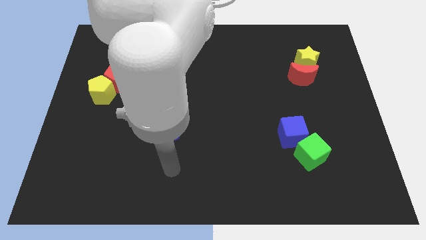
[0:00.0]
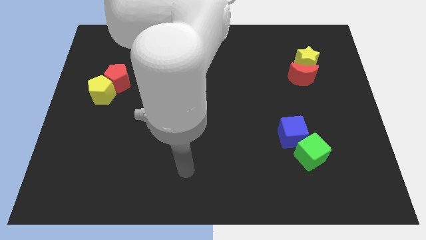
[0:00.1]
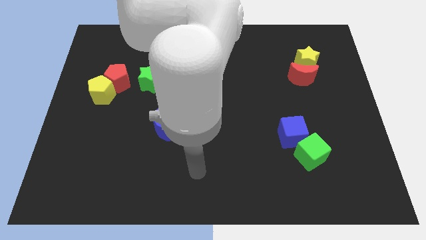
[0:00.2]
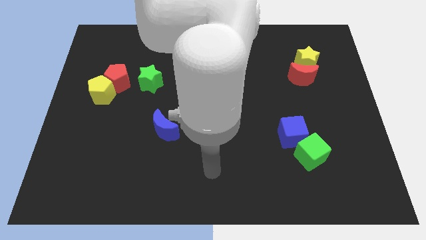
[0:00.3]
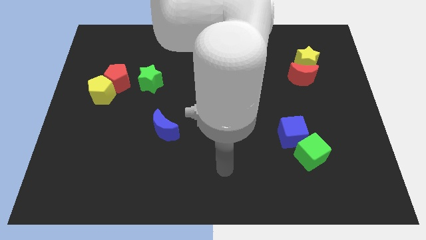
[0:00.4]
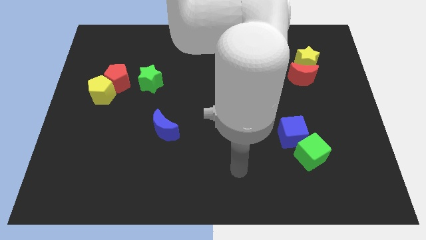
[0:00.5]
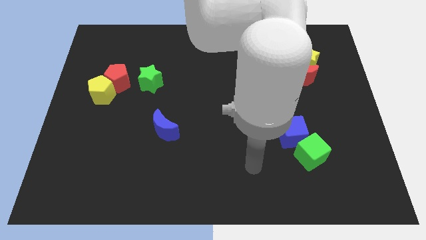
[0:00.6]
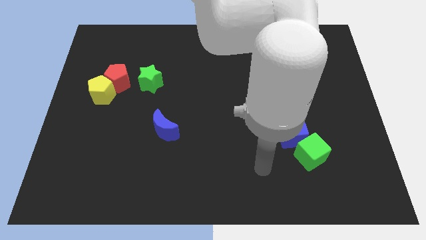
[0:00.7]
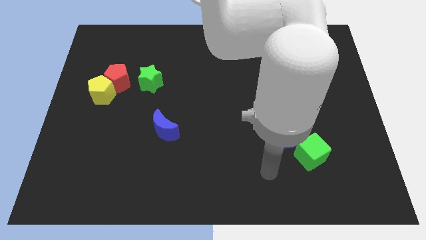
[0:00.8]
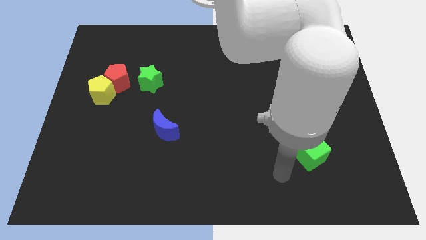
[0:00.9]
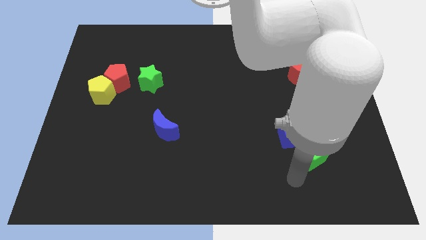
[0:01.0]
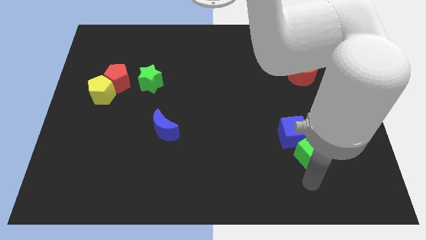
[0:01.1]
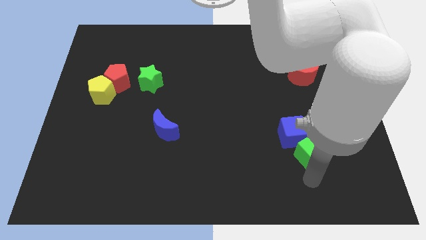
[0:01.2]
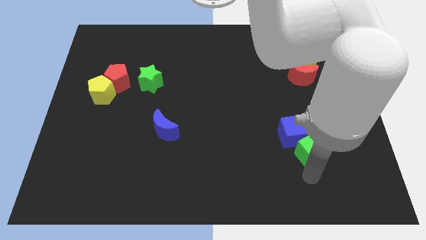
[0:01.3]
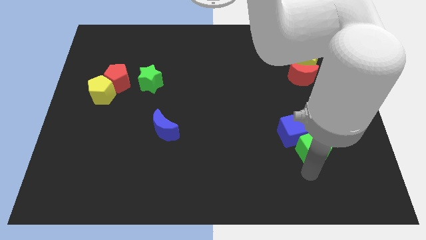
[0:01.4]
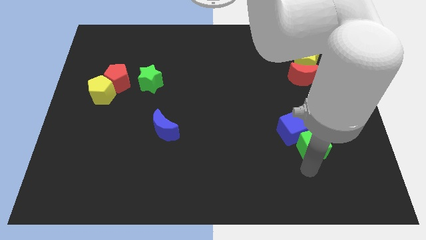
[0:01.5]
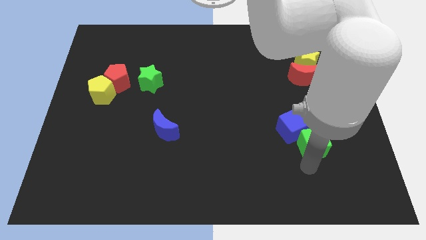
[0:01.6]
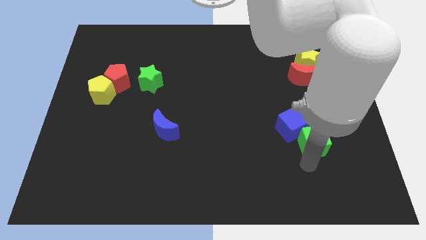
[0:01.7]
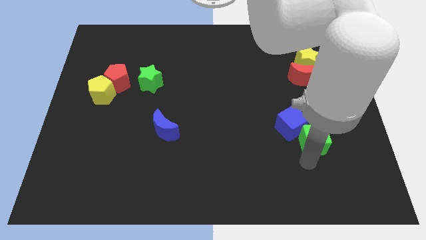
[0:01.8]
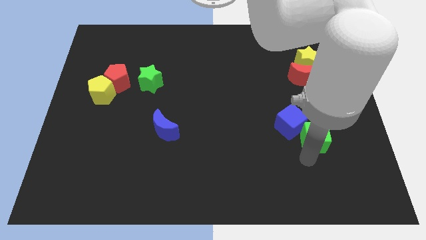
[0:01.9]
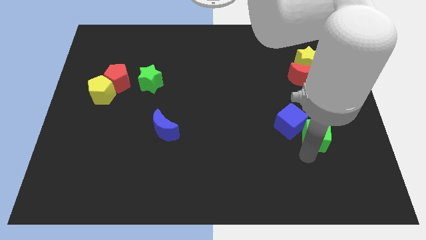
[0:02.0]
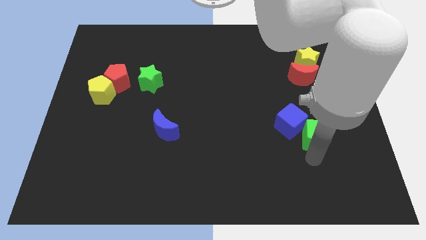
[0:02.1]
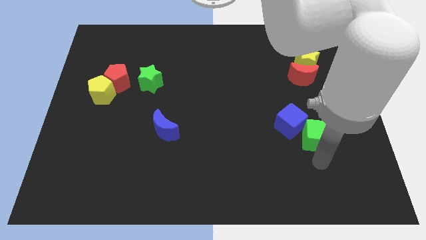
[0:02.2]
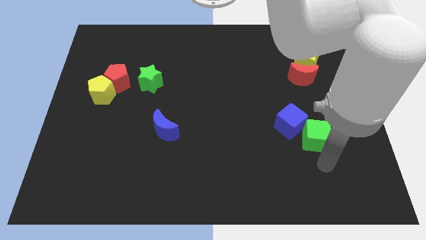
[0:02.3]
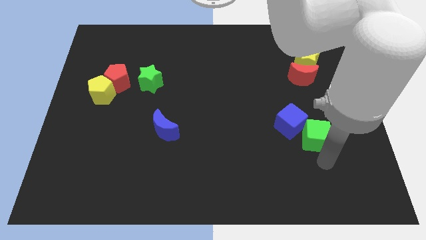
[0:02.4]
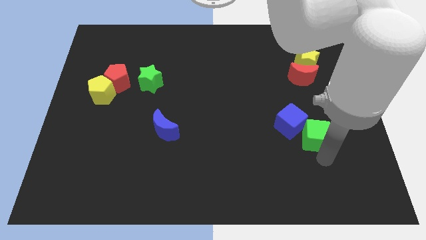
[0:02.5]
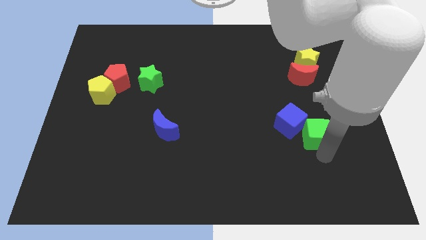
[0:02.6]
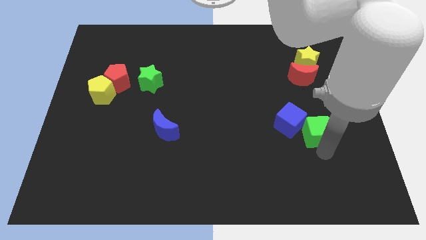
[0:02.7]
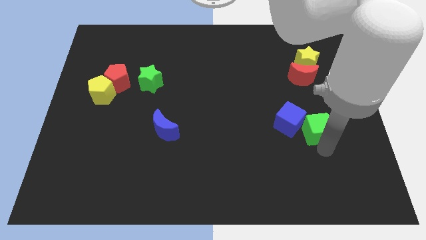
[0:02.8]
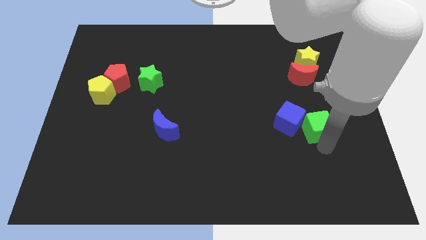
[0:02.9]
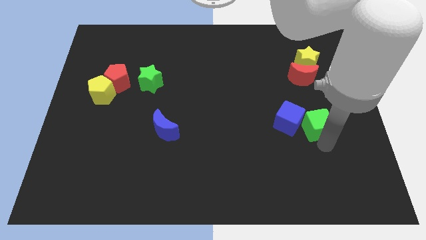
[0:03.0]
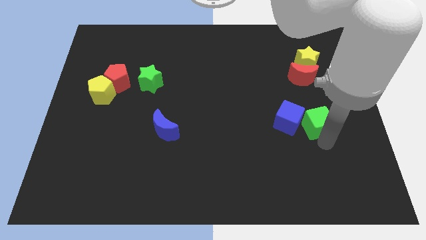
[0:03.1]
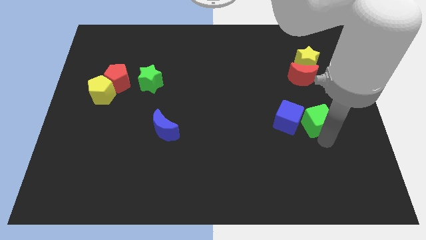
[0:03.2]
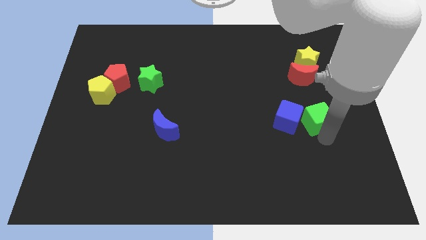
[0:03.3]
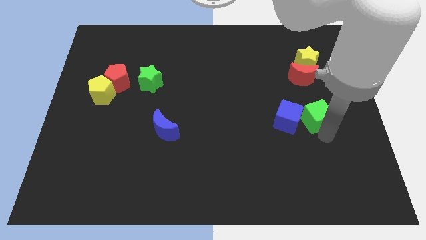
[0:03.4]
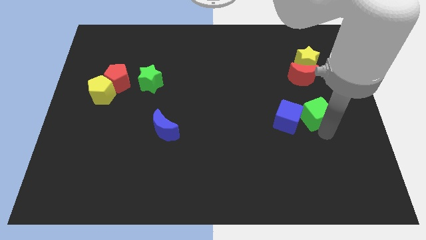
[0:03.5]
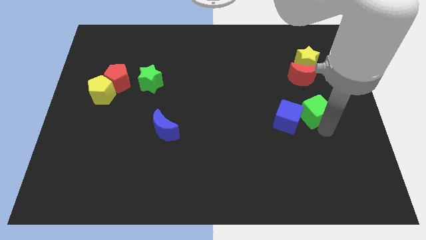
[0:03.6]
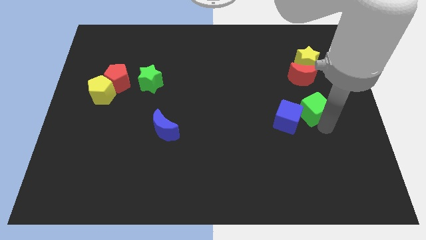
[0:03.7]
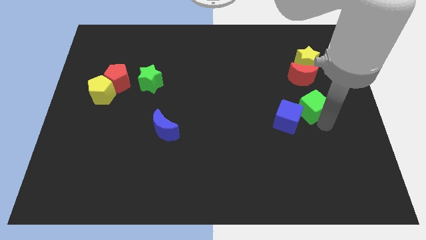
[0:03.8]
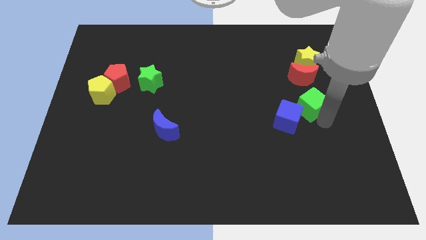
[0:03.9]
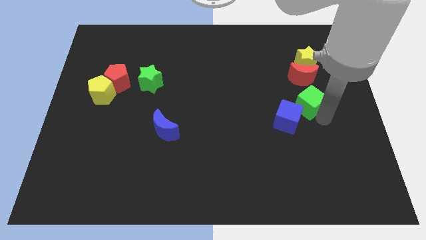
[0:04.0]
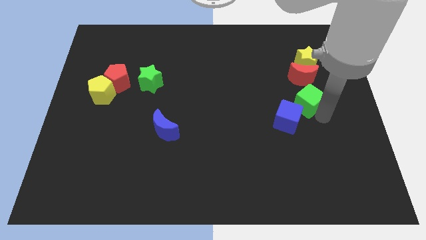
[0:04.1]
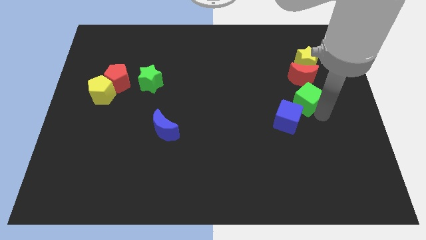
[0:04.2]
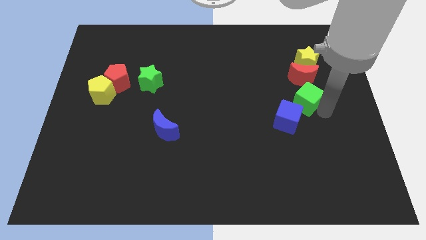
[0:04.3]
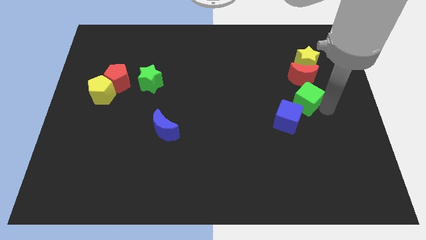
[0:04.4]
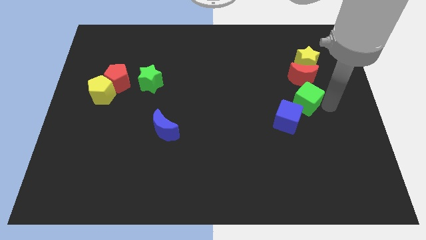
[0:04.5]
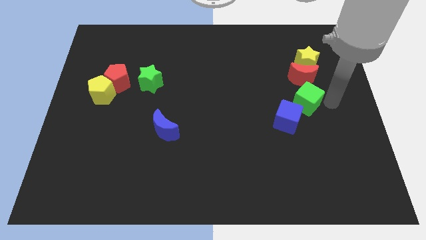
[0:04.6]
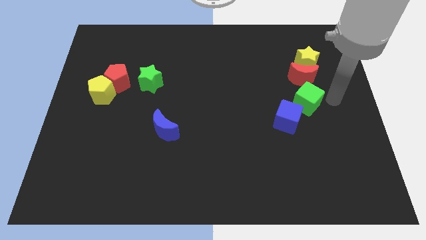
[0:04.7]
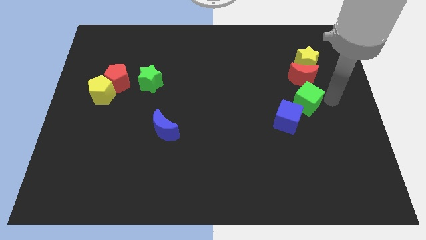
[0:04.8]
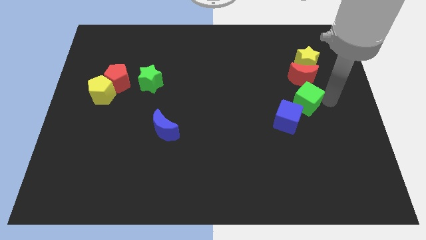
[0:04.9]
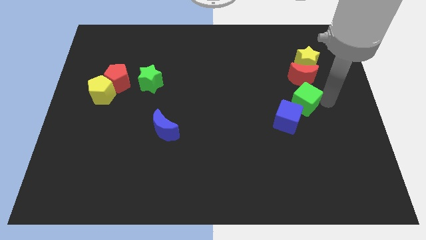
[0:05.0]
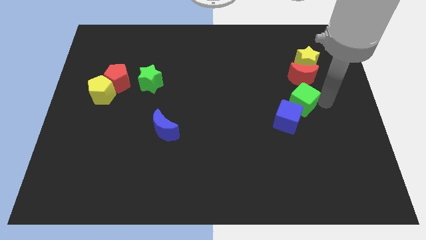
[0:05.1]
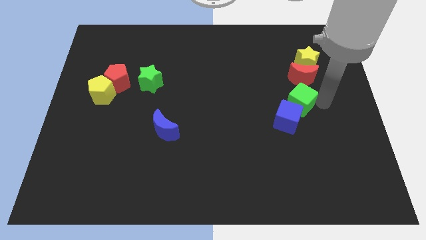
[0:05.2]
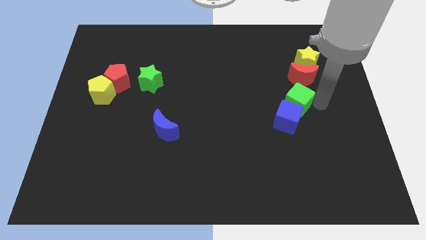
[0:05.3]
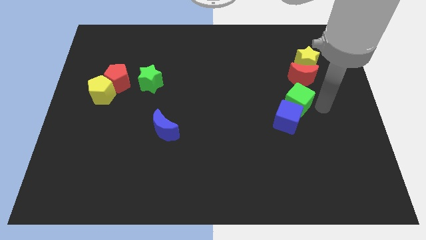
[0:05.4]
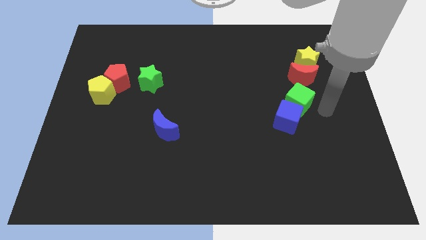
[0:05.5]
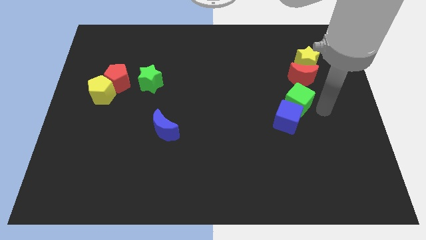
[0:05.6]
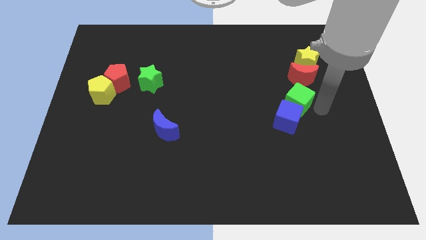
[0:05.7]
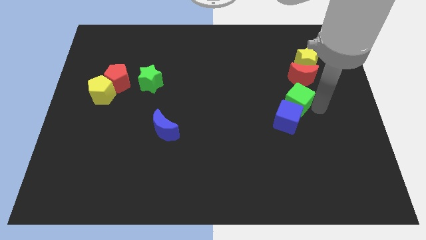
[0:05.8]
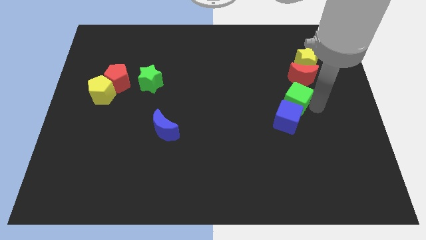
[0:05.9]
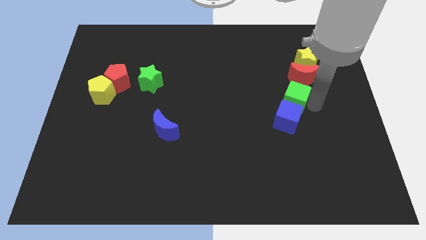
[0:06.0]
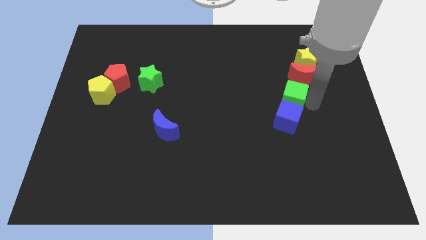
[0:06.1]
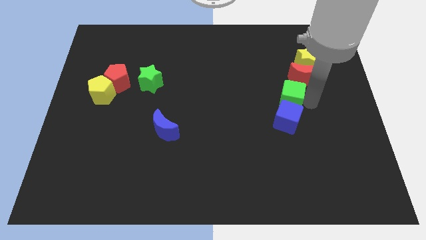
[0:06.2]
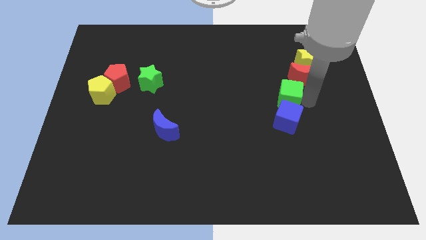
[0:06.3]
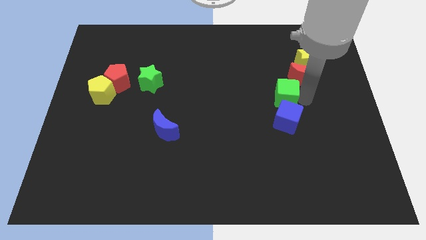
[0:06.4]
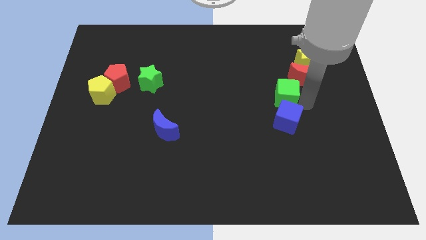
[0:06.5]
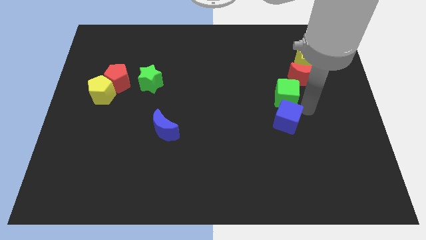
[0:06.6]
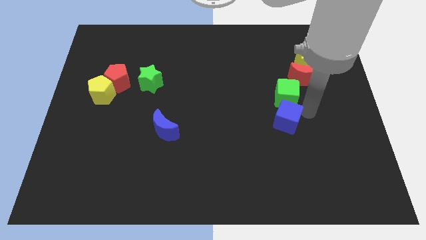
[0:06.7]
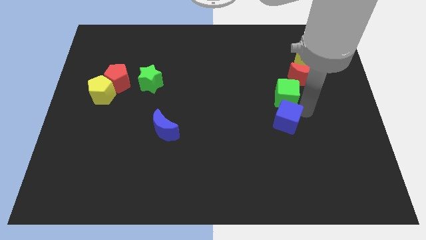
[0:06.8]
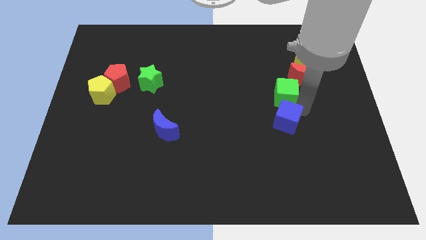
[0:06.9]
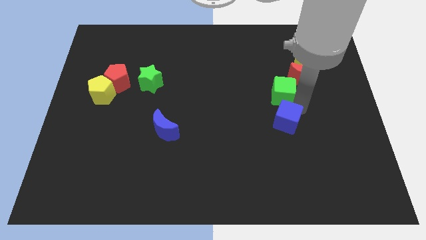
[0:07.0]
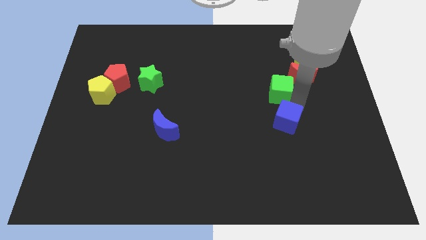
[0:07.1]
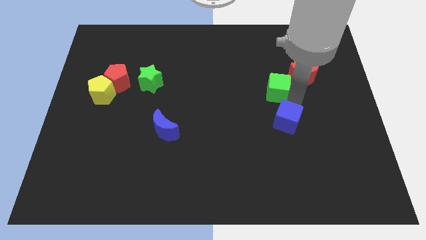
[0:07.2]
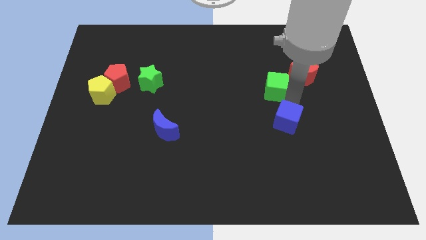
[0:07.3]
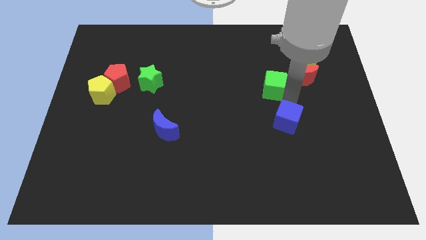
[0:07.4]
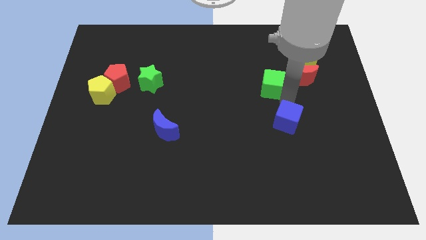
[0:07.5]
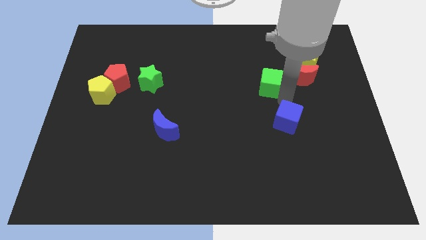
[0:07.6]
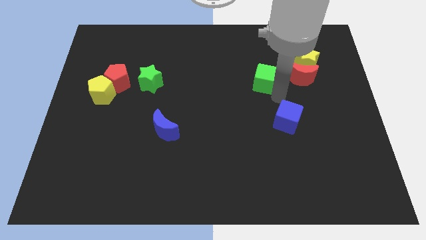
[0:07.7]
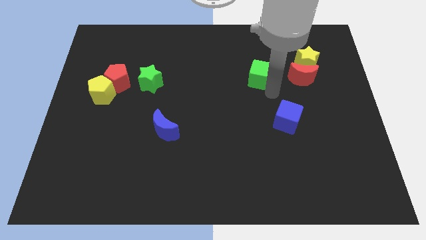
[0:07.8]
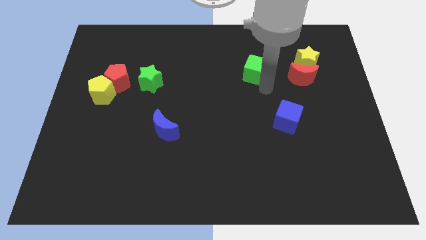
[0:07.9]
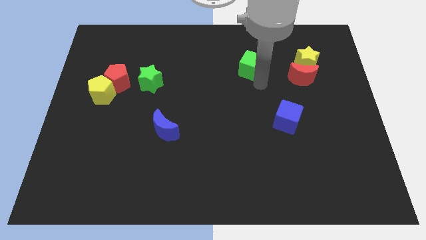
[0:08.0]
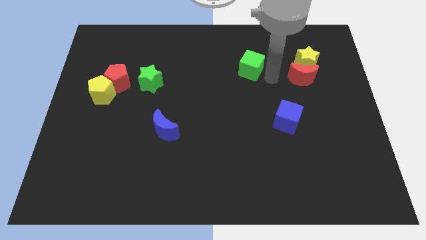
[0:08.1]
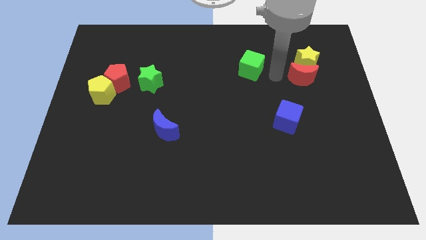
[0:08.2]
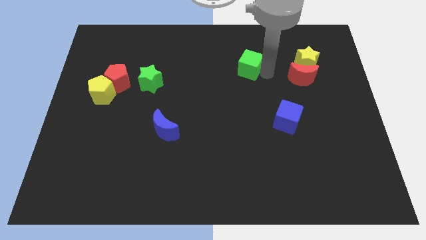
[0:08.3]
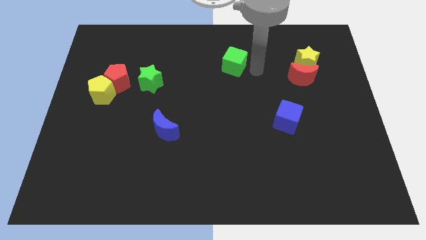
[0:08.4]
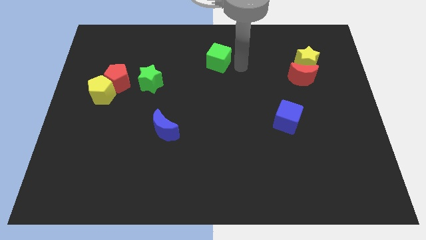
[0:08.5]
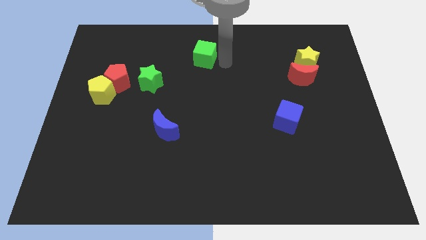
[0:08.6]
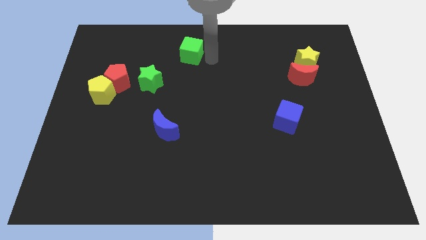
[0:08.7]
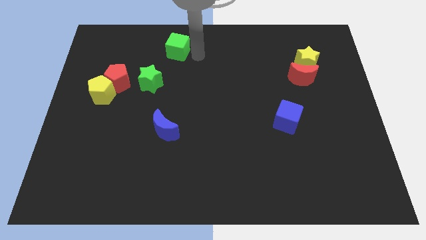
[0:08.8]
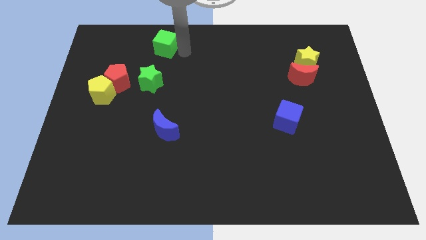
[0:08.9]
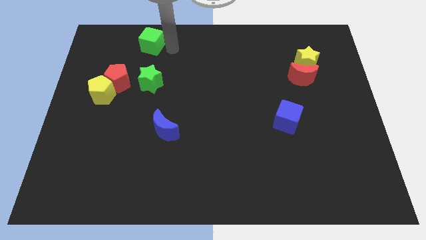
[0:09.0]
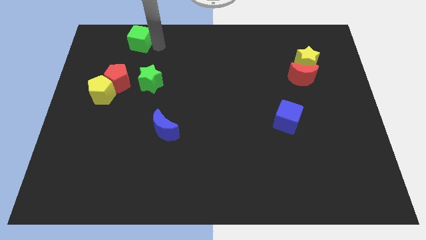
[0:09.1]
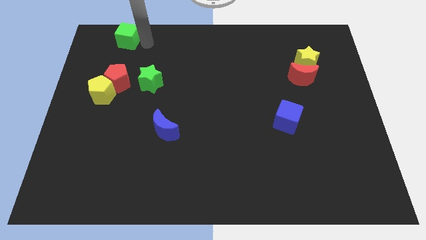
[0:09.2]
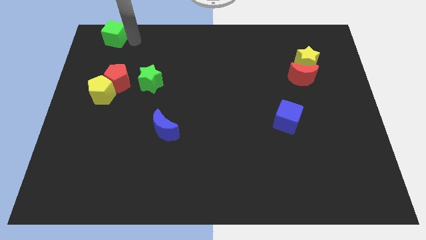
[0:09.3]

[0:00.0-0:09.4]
push the green cube to the top left of the board
